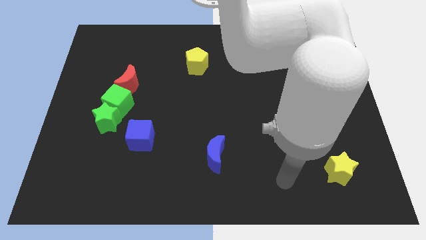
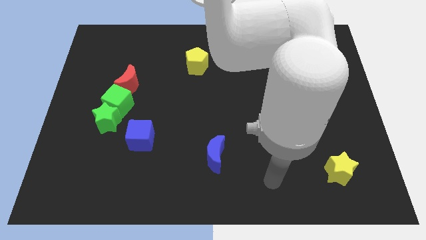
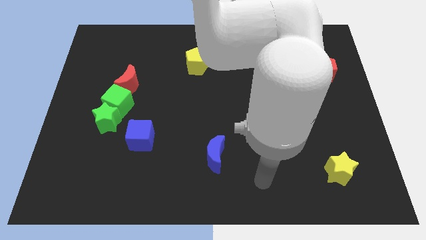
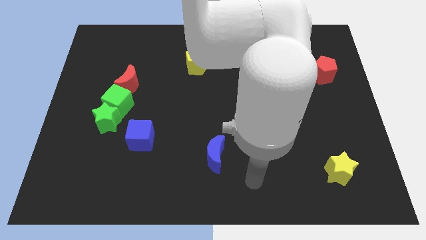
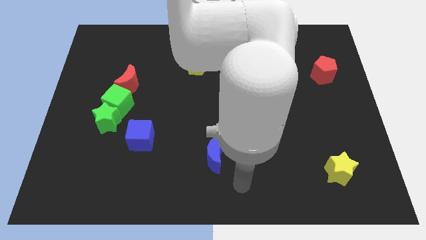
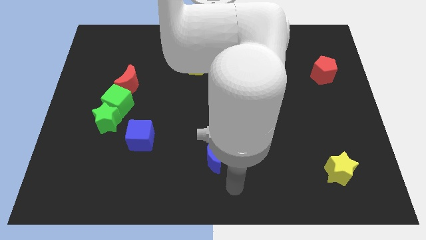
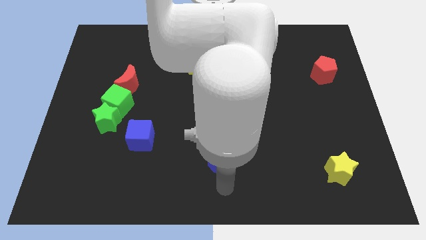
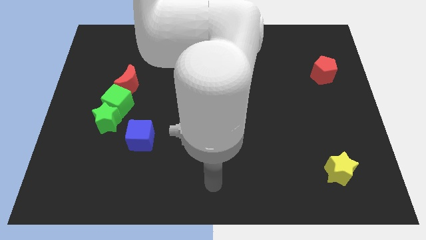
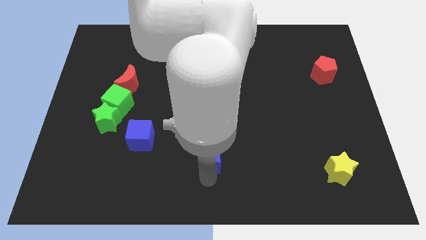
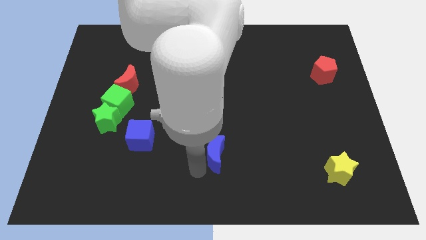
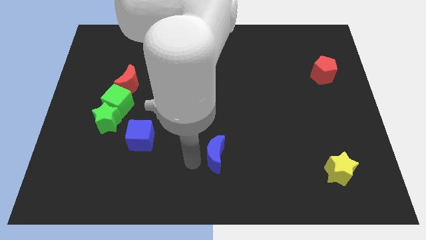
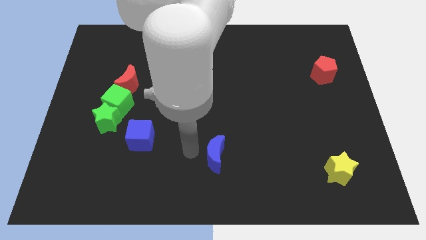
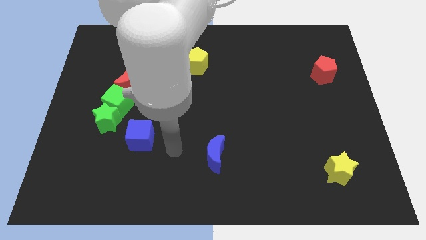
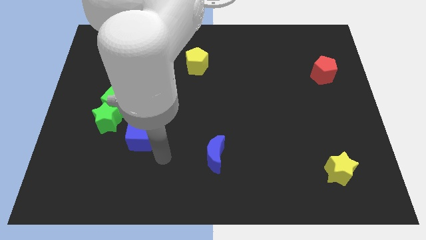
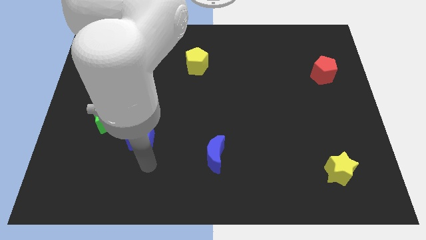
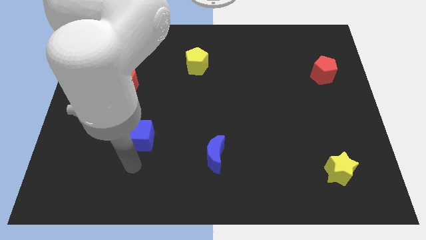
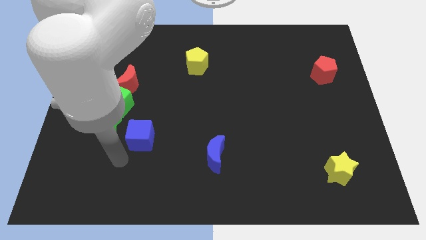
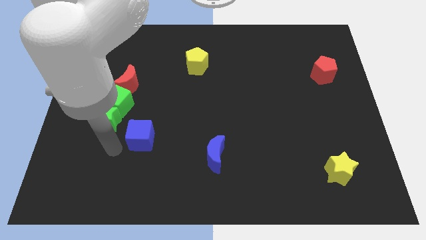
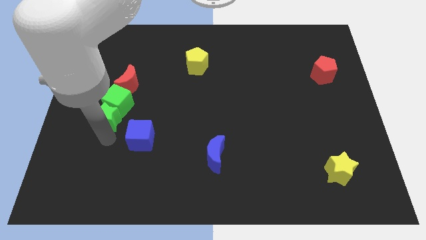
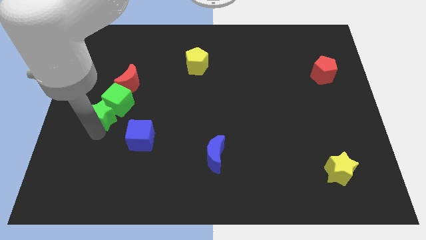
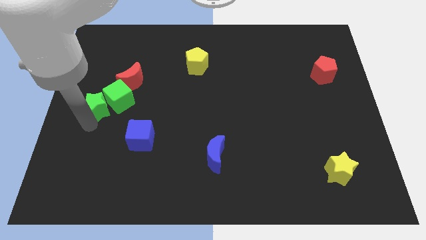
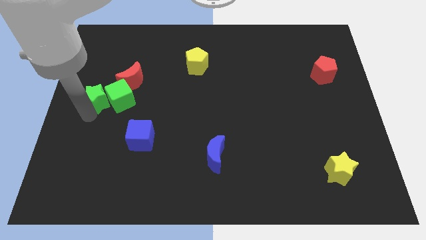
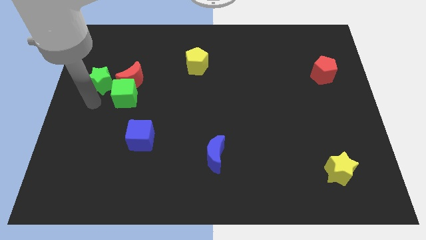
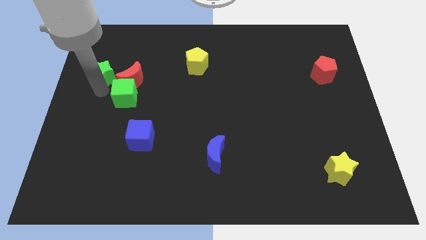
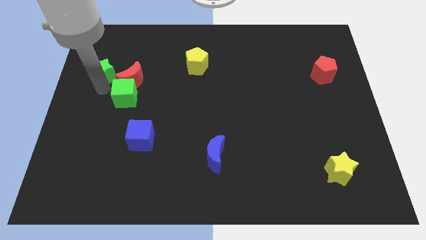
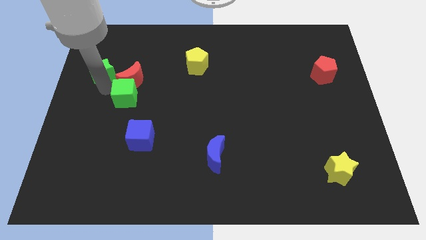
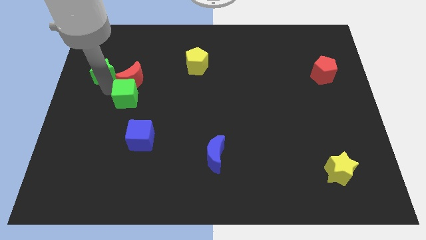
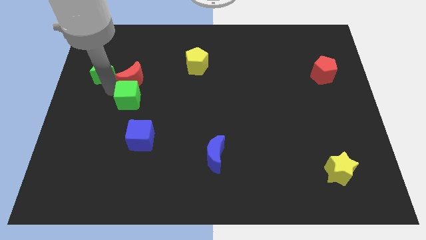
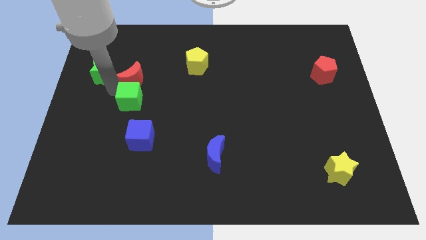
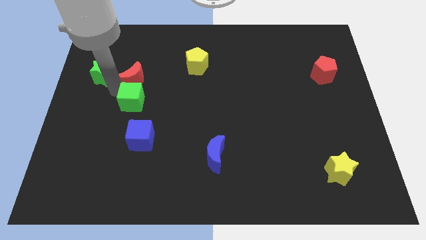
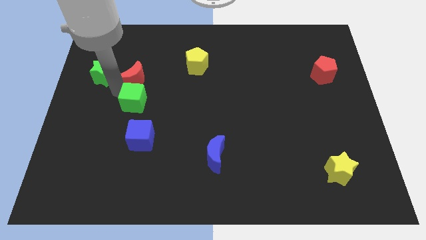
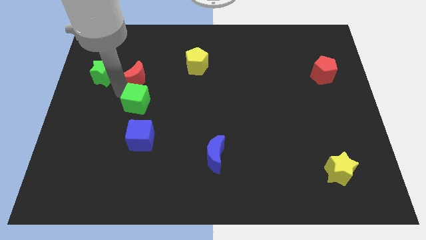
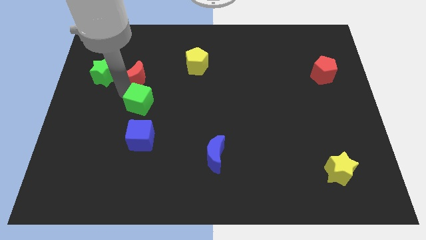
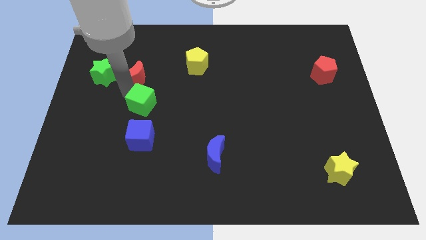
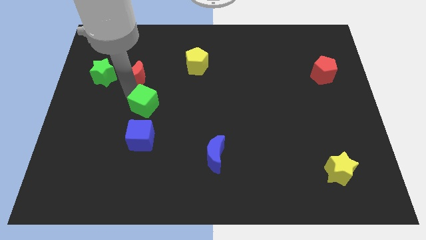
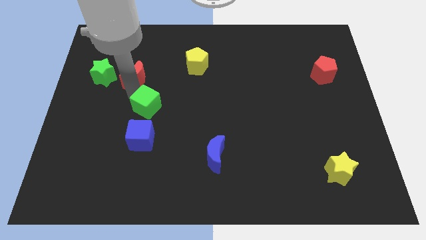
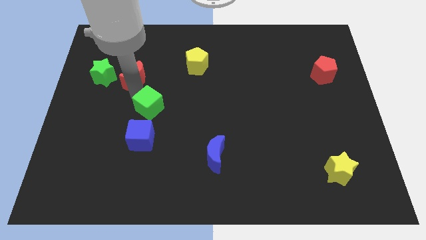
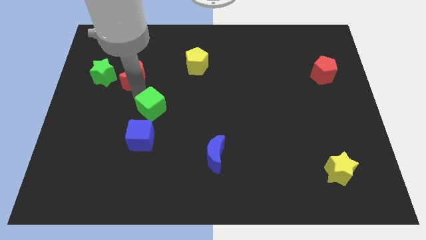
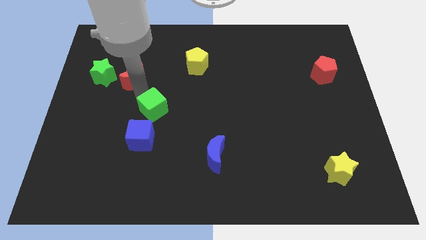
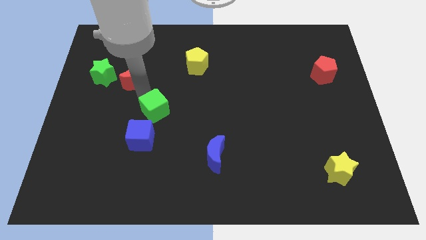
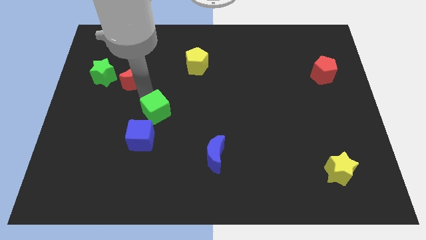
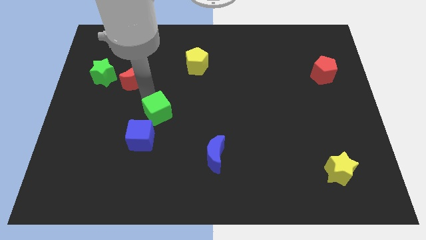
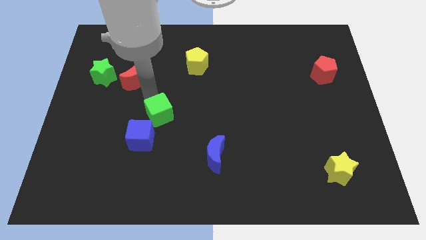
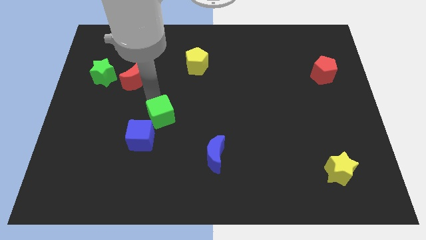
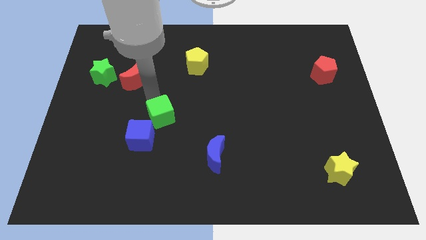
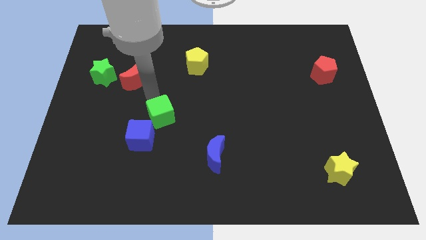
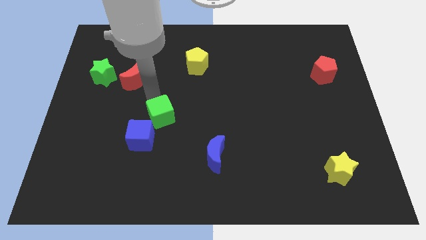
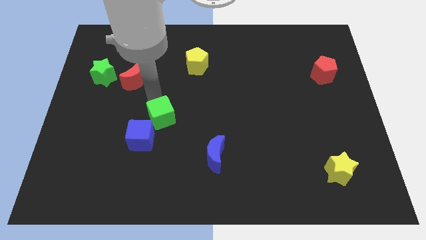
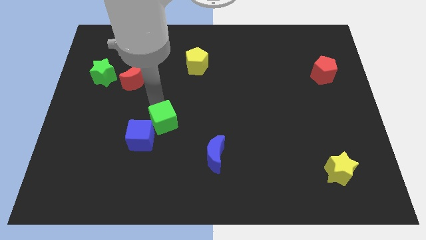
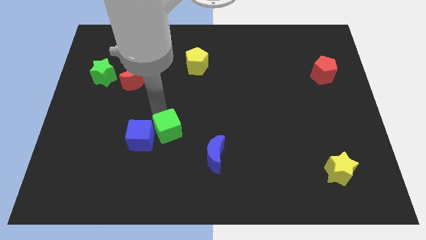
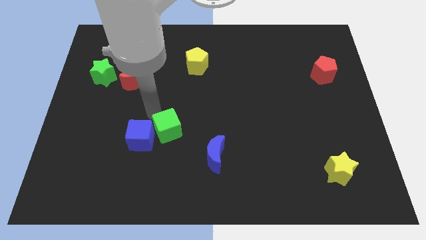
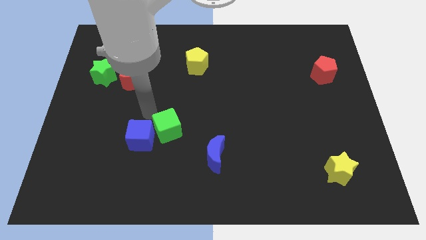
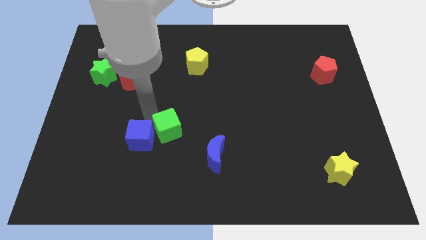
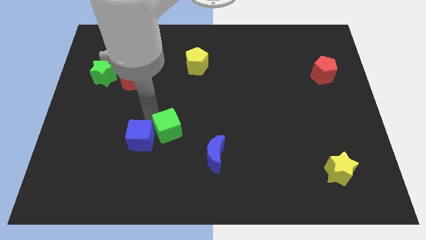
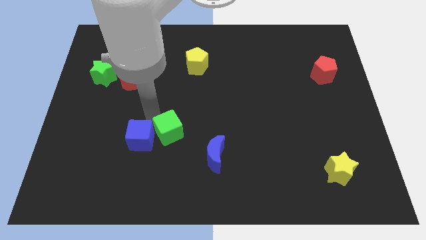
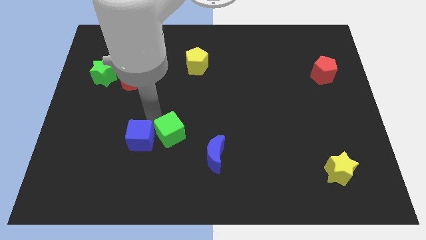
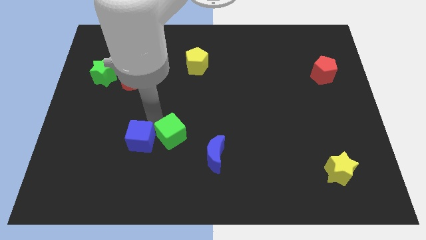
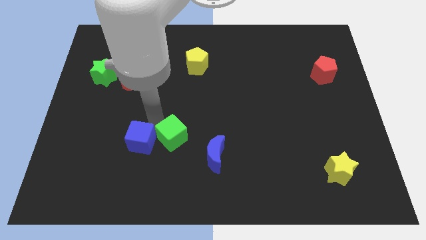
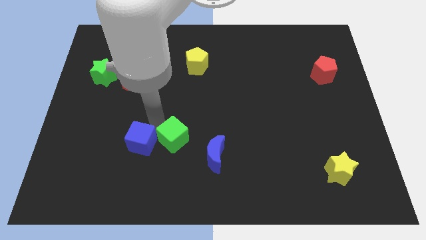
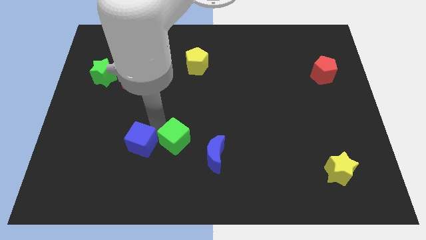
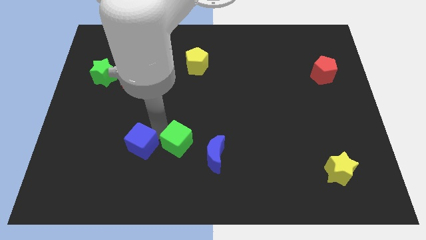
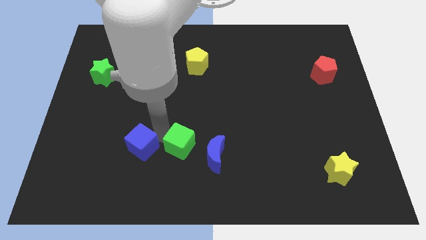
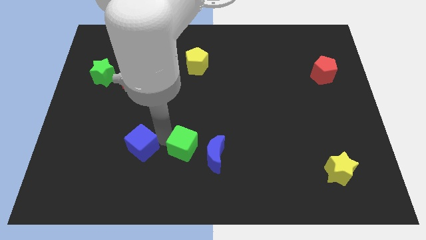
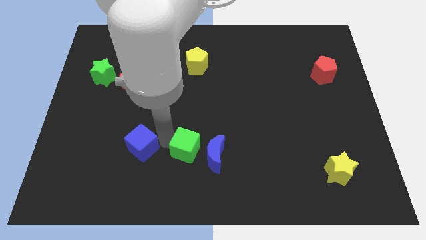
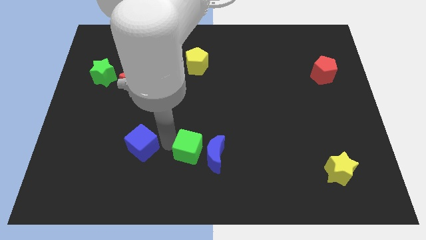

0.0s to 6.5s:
put the green cube close to the blue moon

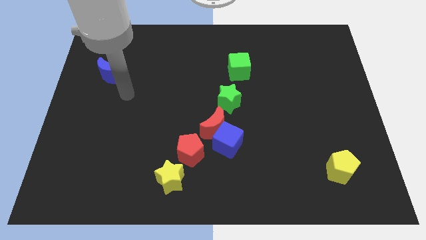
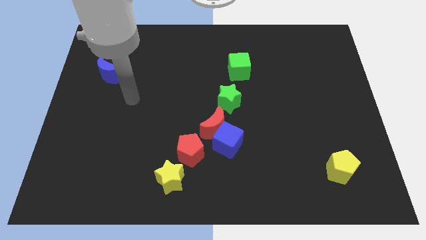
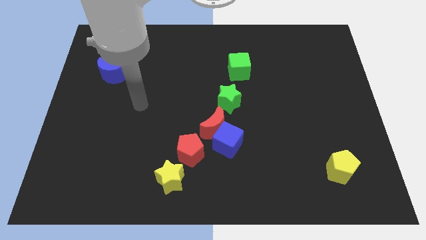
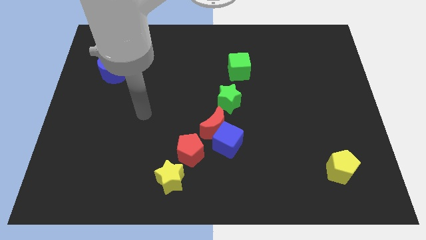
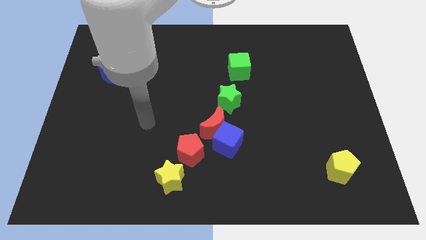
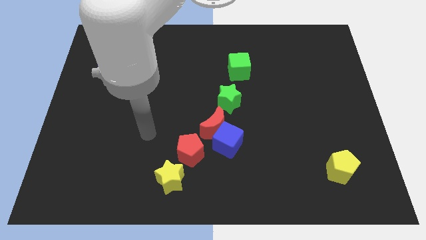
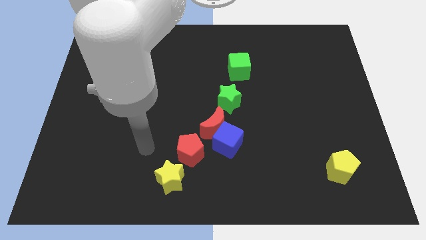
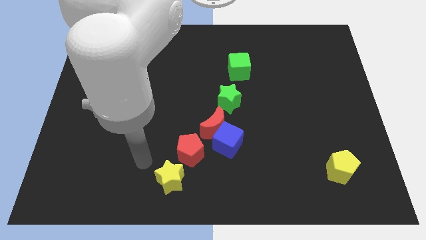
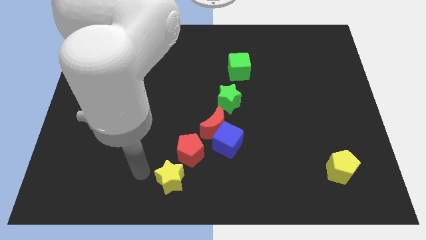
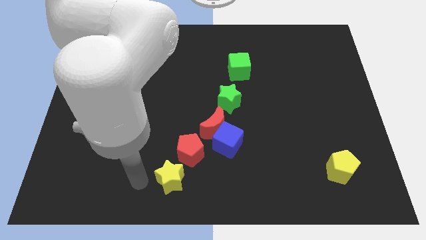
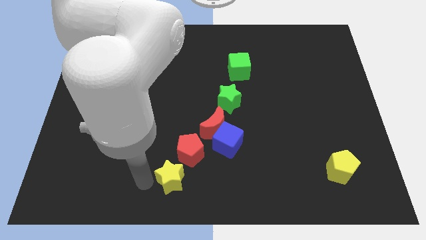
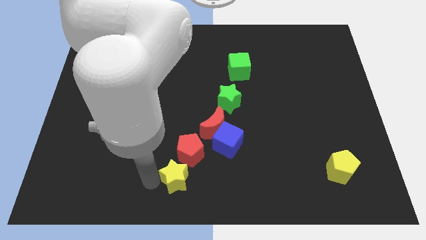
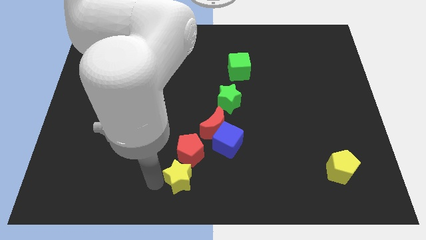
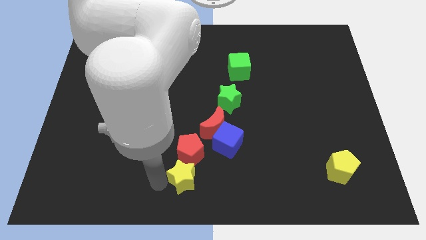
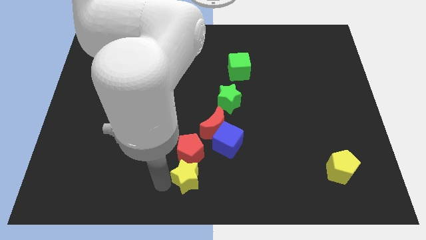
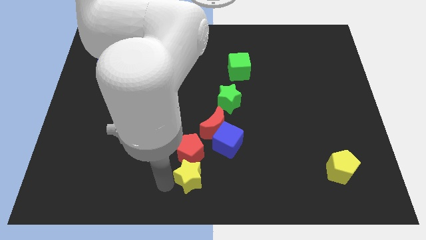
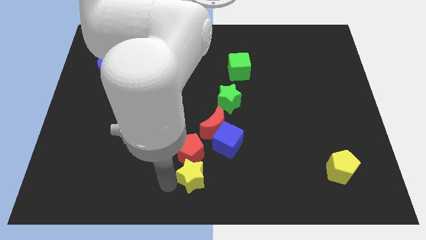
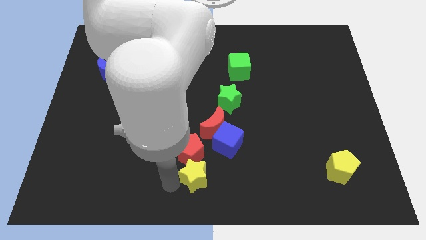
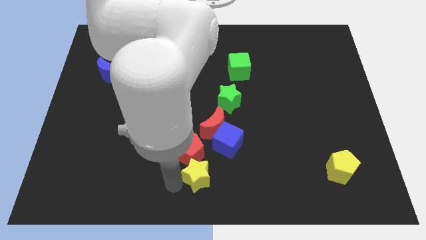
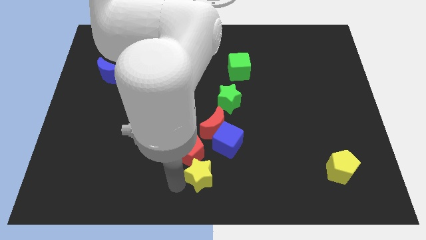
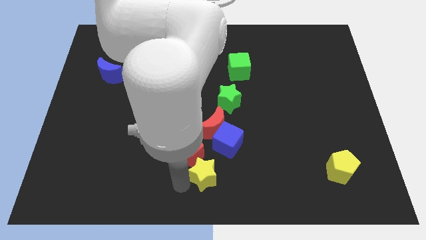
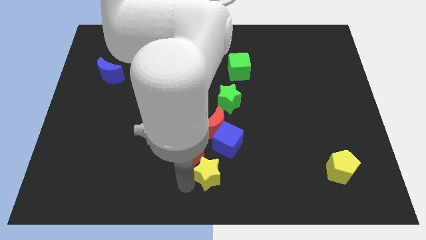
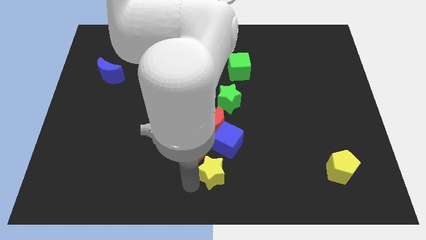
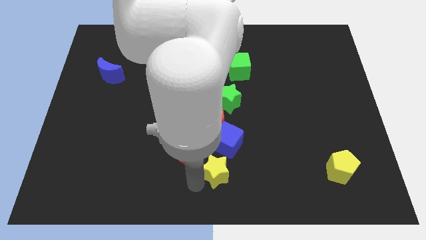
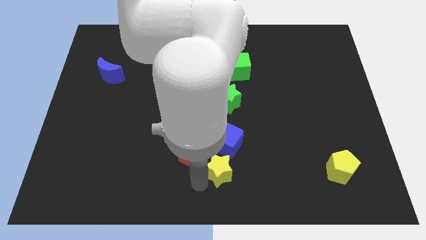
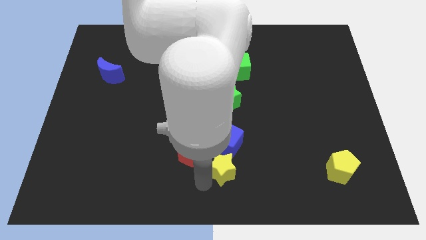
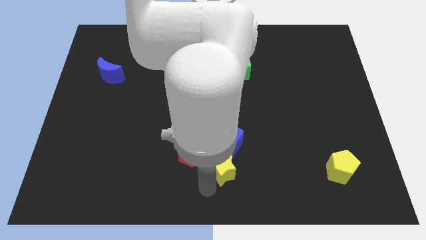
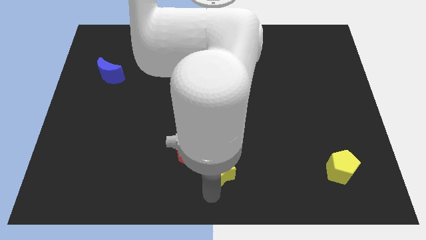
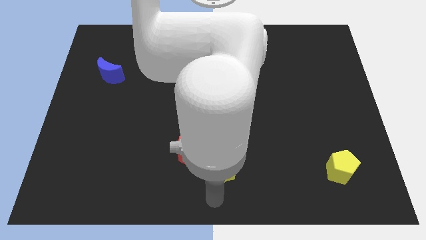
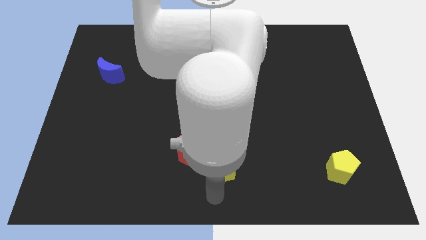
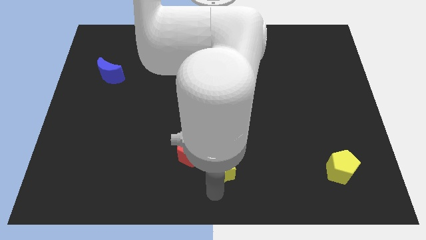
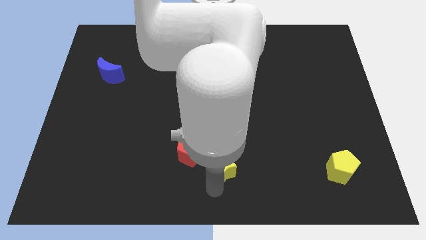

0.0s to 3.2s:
move the yellow star close to the blue cube
